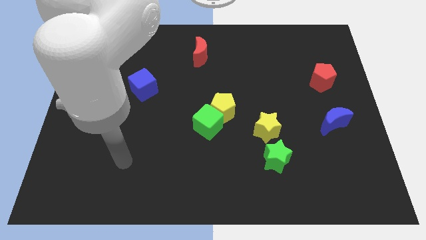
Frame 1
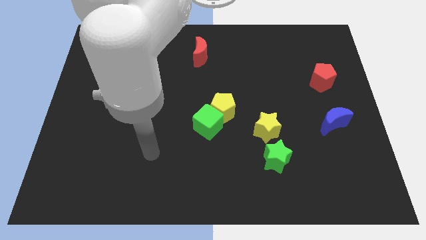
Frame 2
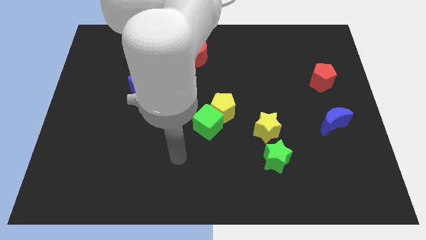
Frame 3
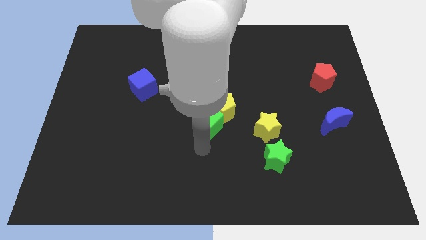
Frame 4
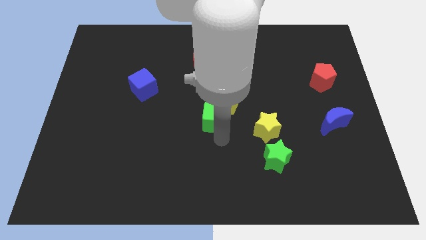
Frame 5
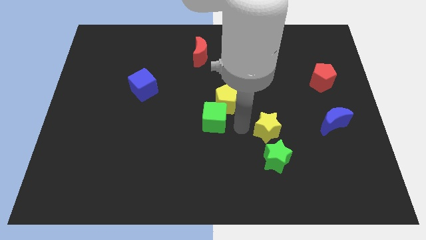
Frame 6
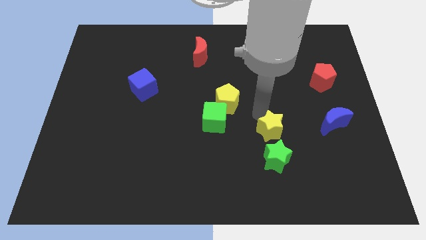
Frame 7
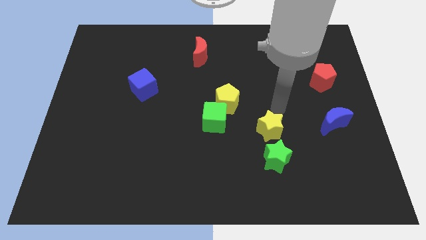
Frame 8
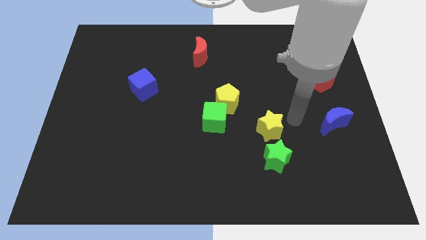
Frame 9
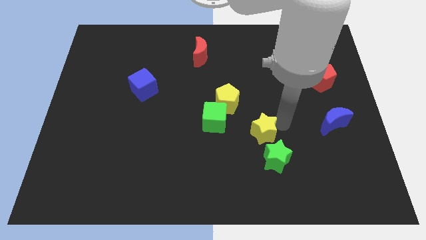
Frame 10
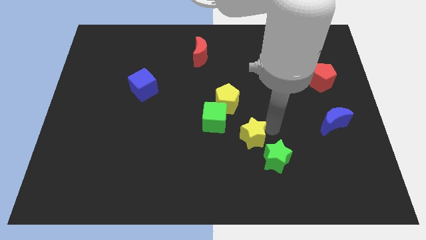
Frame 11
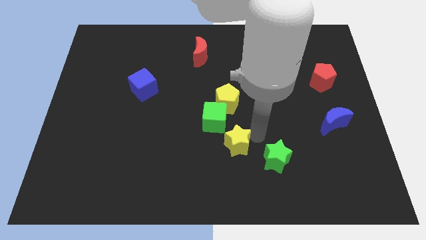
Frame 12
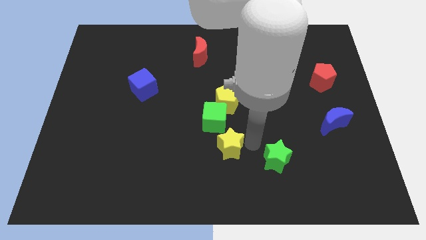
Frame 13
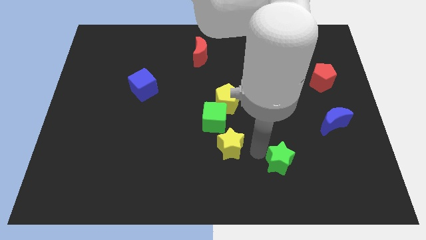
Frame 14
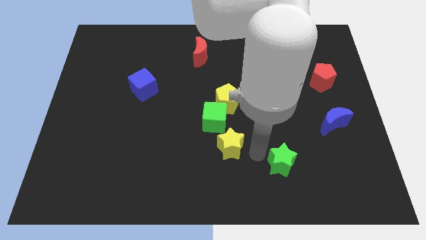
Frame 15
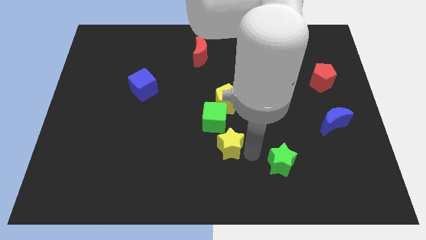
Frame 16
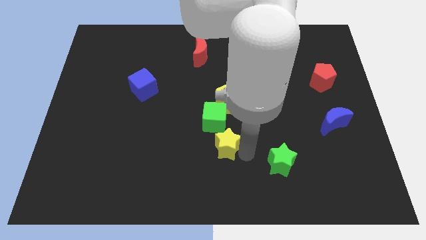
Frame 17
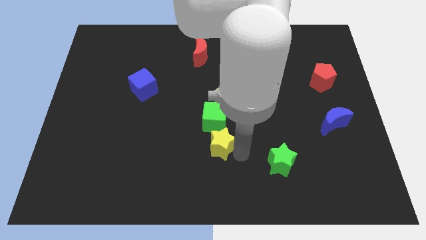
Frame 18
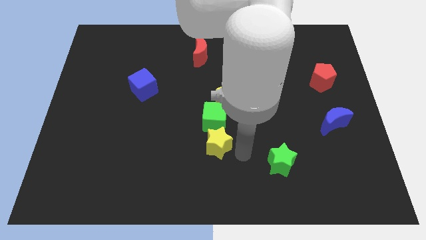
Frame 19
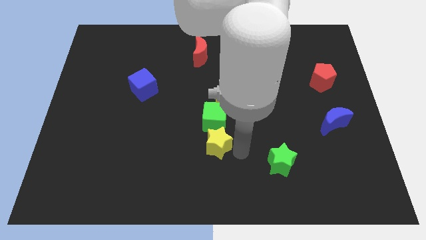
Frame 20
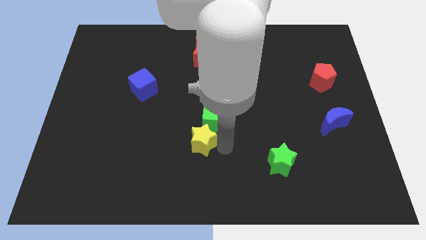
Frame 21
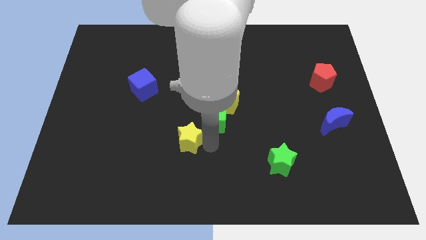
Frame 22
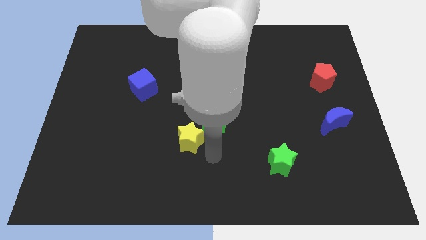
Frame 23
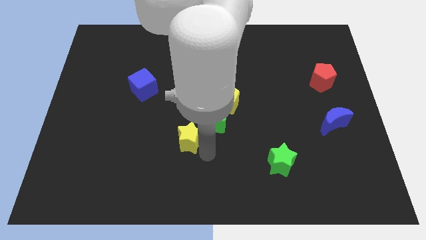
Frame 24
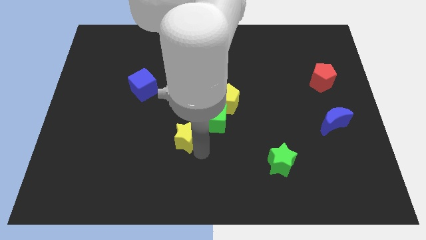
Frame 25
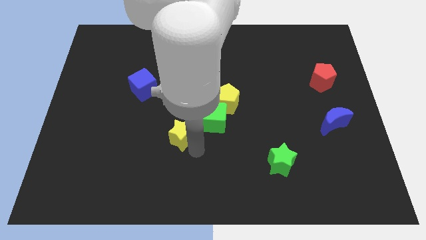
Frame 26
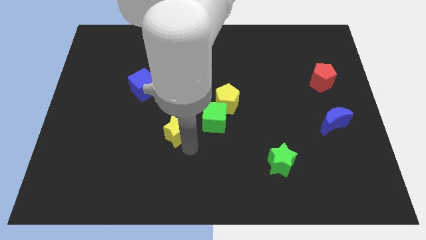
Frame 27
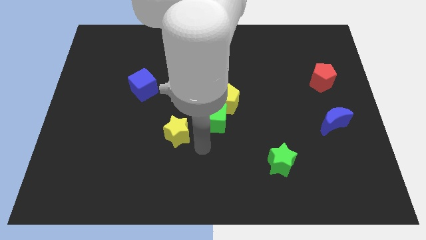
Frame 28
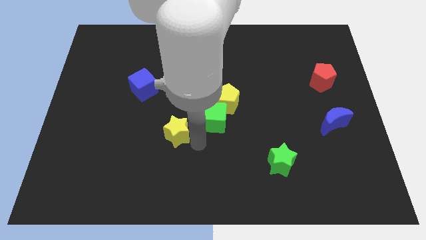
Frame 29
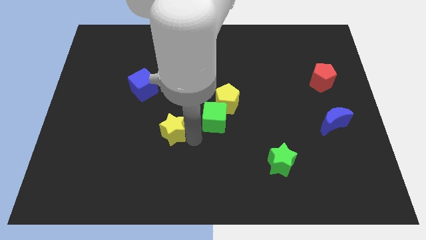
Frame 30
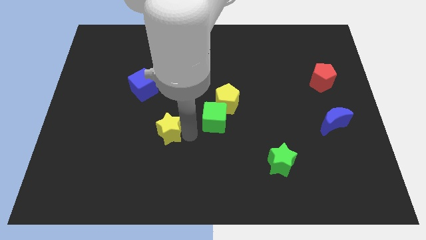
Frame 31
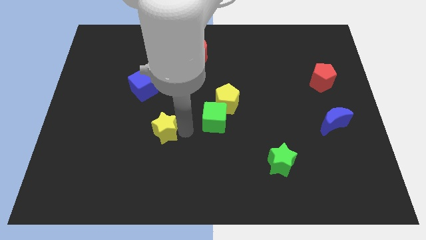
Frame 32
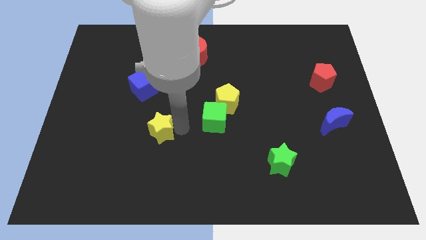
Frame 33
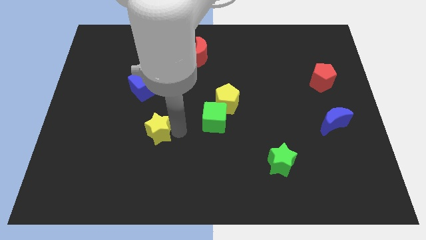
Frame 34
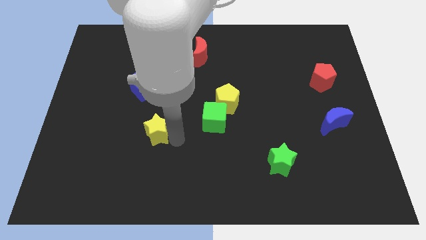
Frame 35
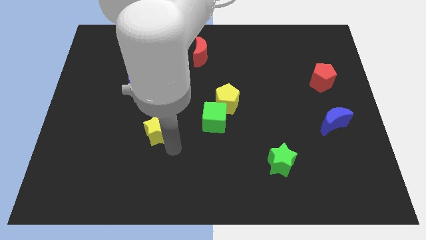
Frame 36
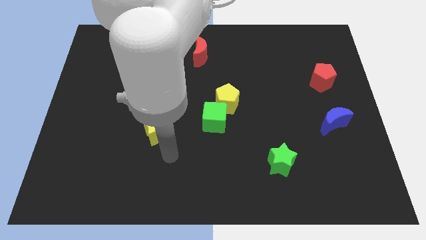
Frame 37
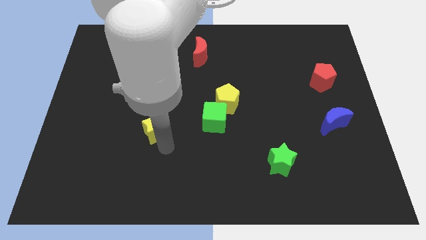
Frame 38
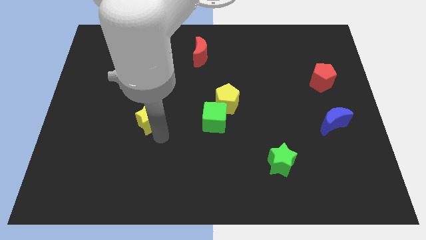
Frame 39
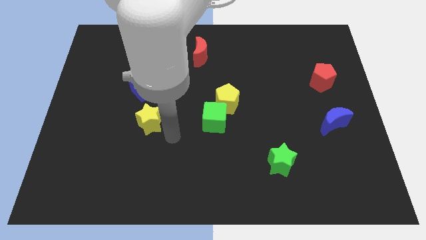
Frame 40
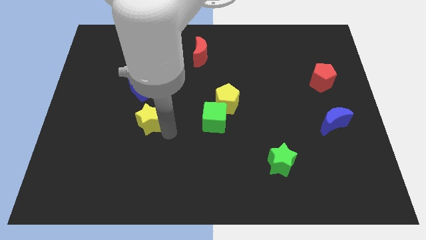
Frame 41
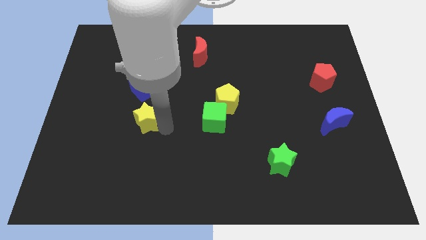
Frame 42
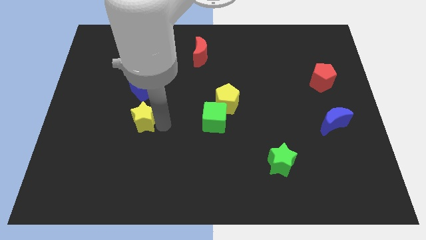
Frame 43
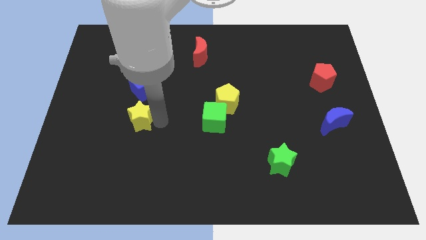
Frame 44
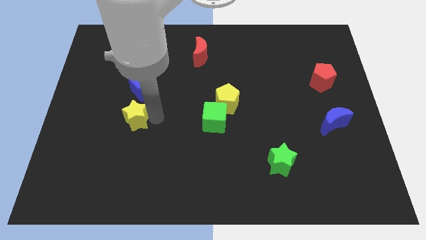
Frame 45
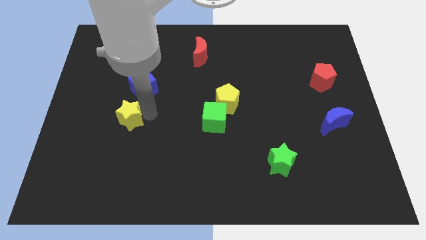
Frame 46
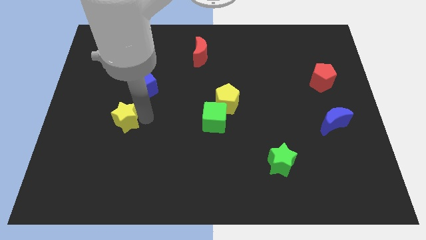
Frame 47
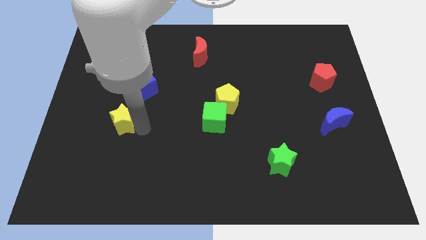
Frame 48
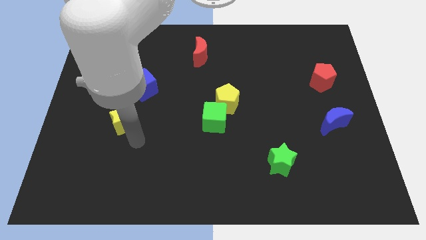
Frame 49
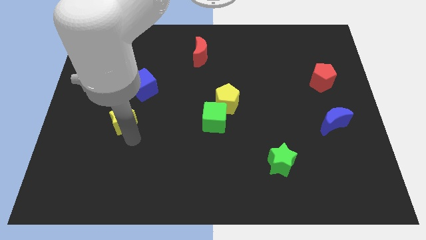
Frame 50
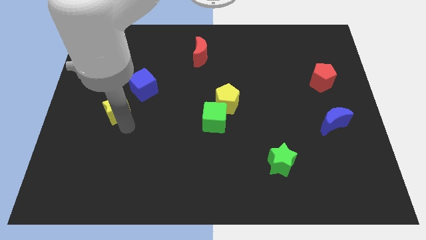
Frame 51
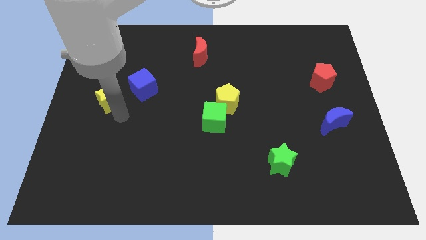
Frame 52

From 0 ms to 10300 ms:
put the yellow star to the left side of the blue cube

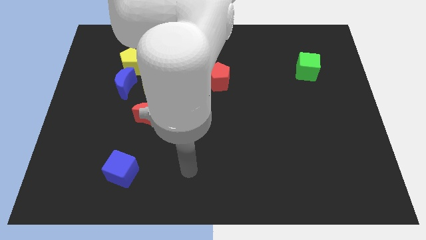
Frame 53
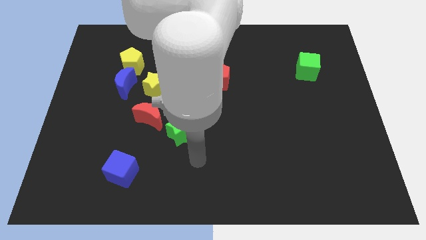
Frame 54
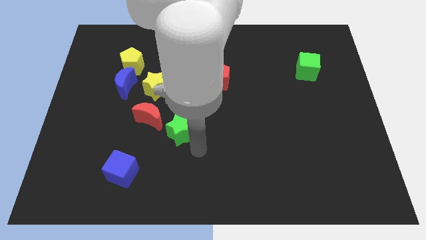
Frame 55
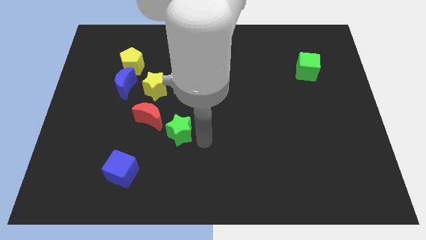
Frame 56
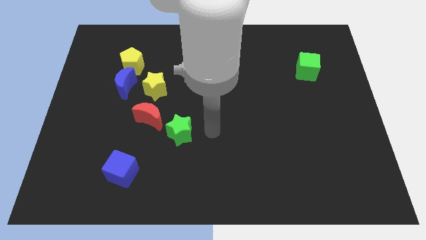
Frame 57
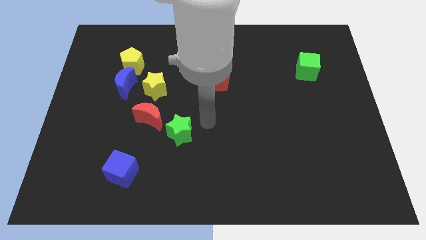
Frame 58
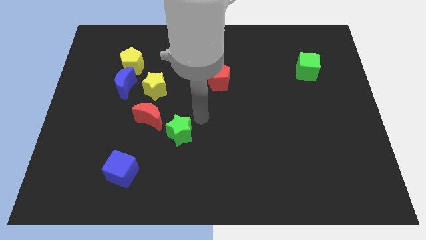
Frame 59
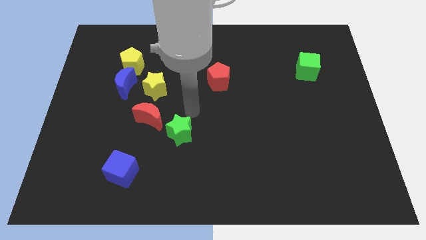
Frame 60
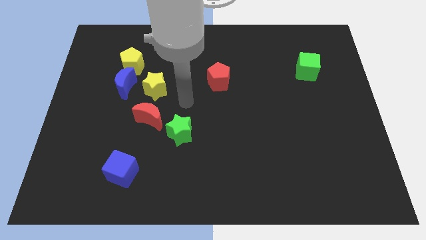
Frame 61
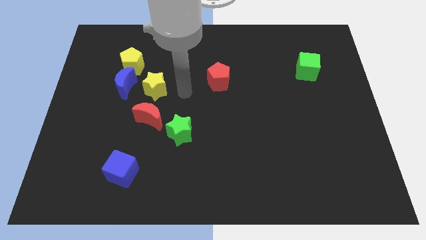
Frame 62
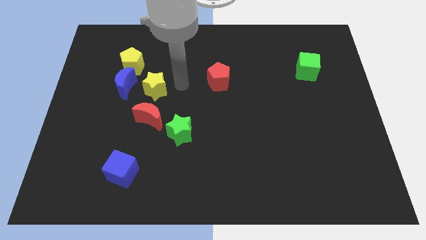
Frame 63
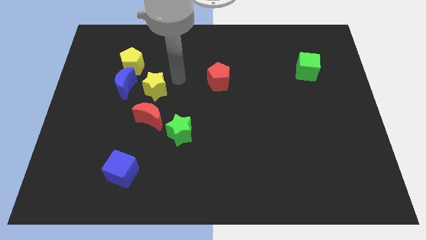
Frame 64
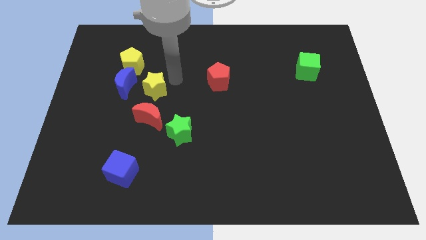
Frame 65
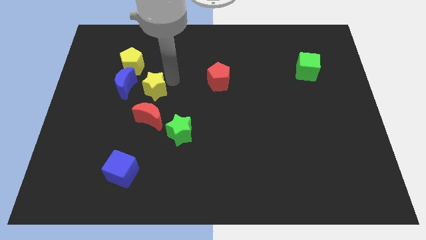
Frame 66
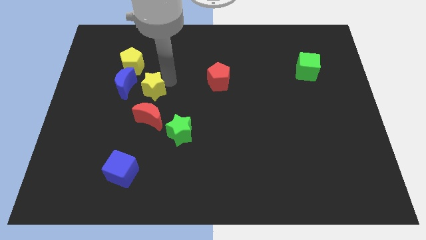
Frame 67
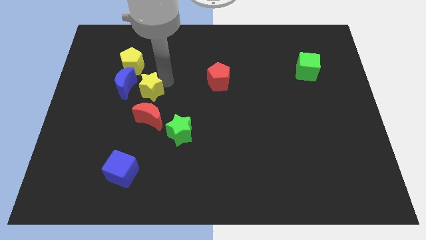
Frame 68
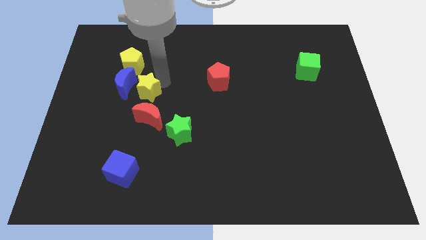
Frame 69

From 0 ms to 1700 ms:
slide the yellow star diagonally up and to the left of the red moon

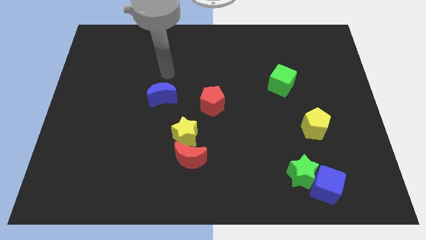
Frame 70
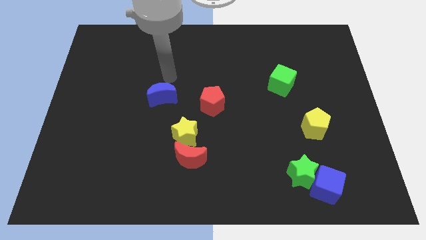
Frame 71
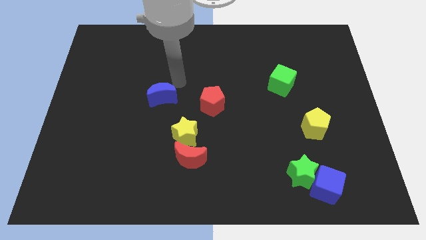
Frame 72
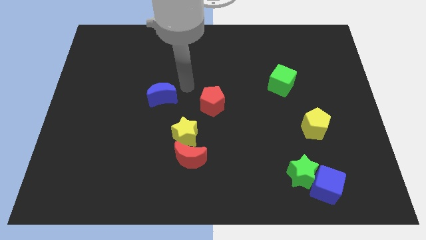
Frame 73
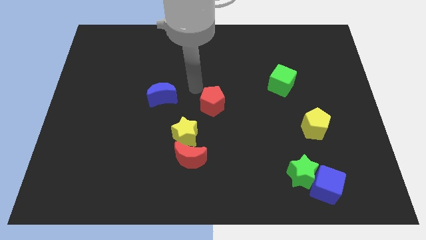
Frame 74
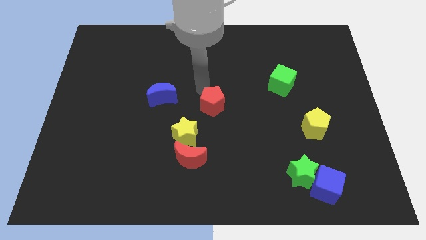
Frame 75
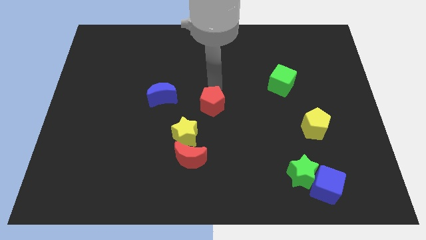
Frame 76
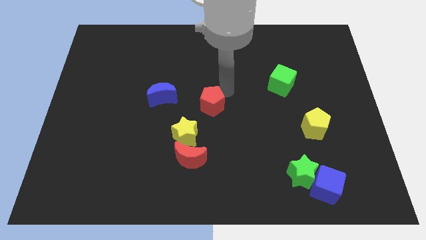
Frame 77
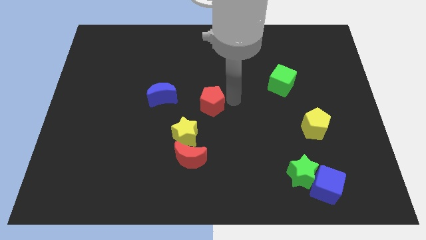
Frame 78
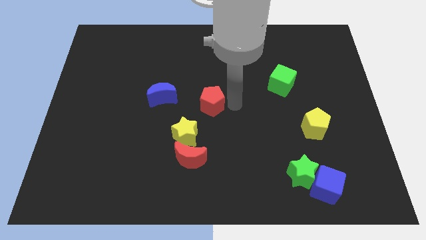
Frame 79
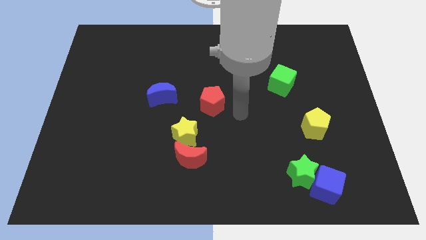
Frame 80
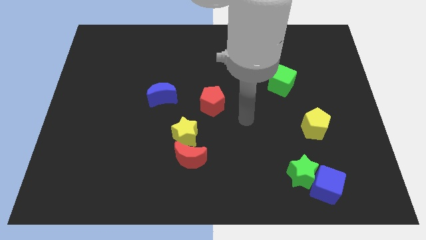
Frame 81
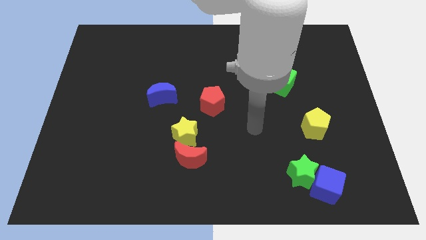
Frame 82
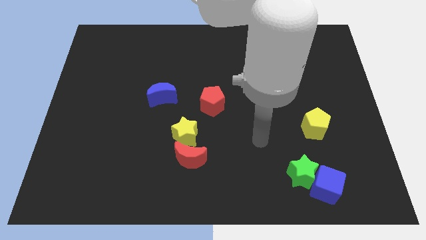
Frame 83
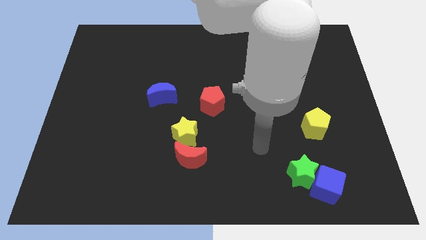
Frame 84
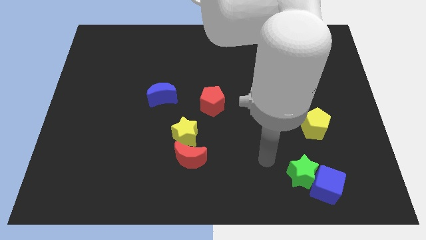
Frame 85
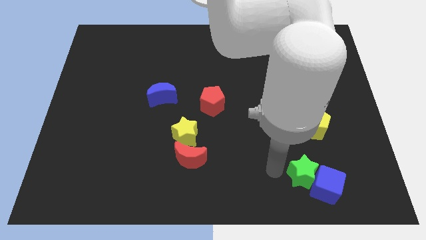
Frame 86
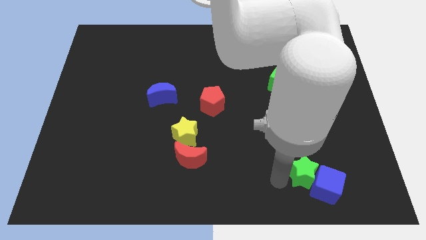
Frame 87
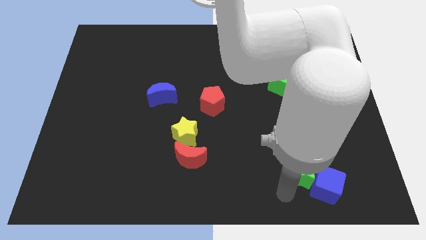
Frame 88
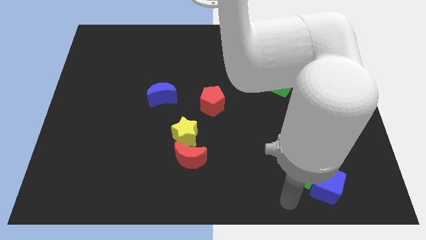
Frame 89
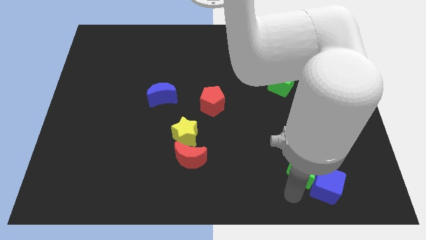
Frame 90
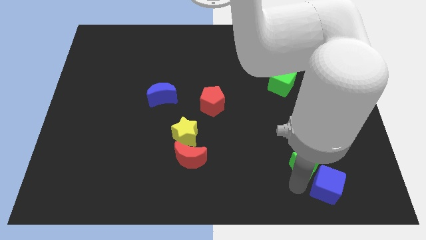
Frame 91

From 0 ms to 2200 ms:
put the green star above the blue cube
